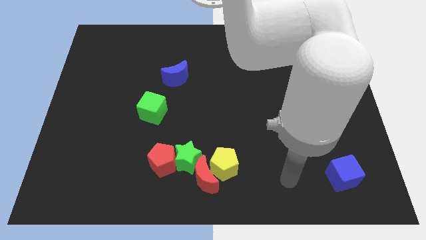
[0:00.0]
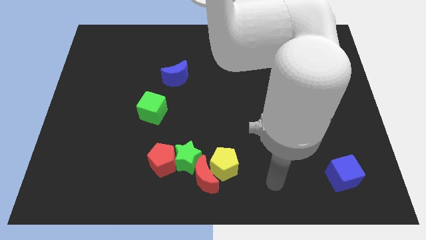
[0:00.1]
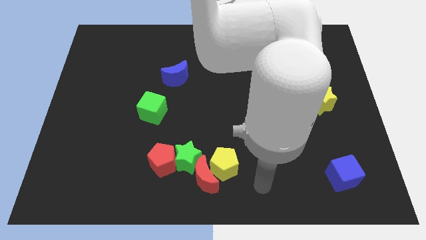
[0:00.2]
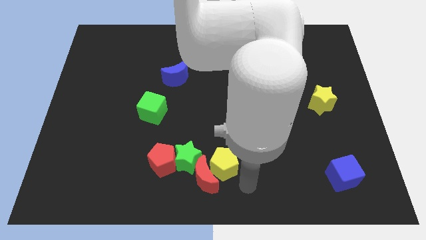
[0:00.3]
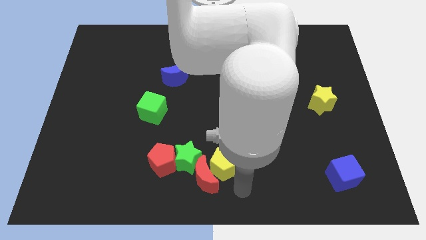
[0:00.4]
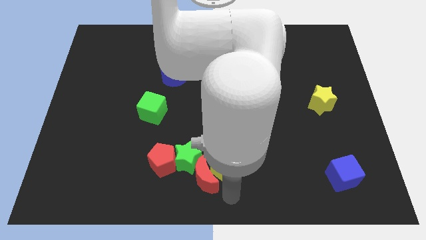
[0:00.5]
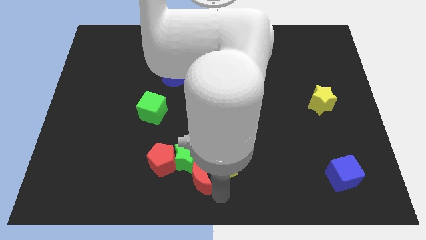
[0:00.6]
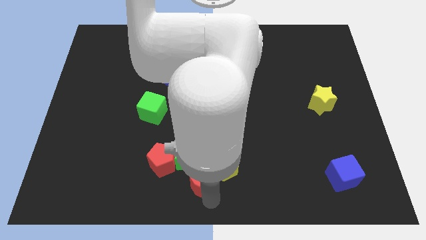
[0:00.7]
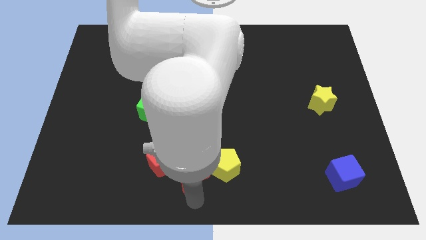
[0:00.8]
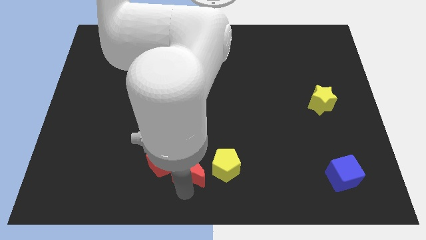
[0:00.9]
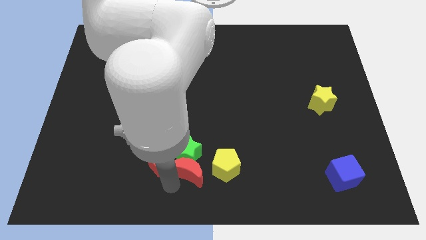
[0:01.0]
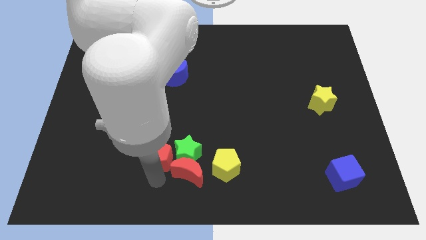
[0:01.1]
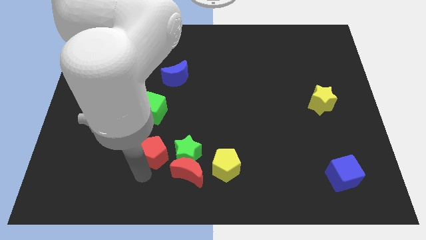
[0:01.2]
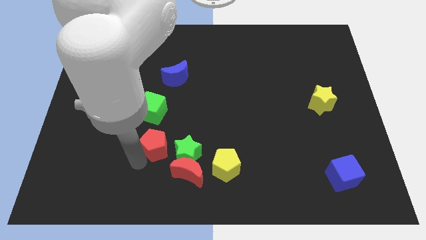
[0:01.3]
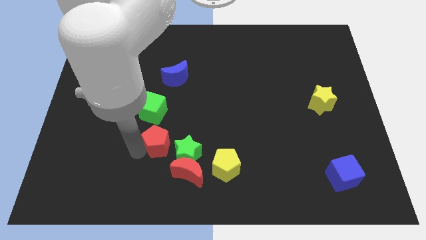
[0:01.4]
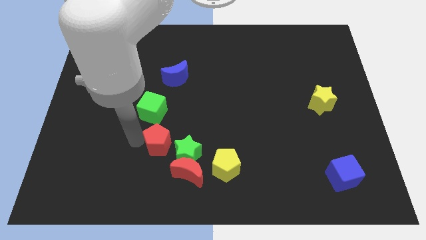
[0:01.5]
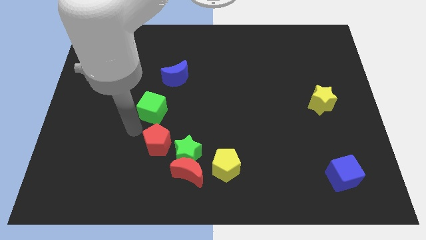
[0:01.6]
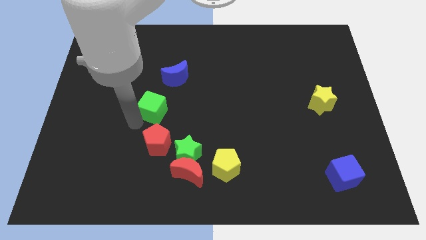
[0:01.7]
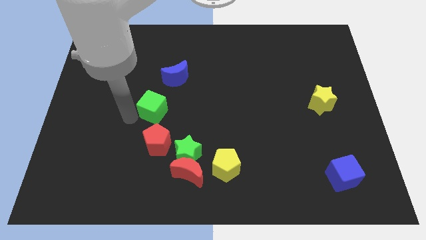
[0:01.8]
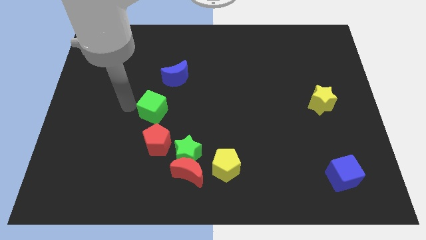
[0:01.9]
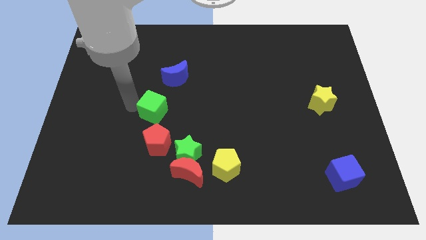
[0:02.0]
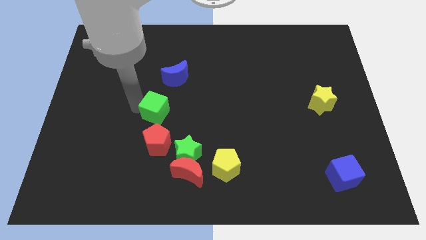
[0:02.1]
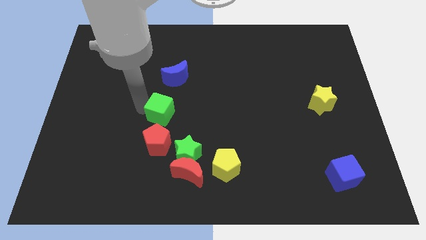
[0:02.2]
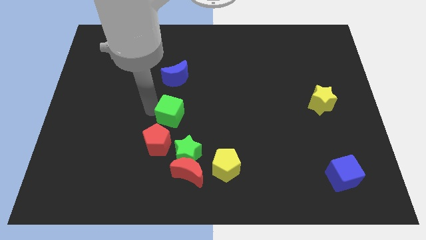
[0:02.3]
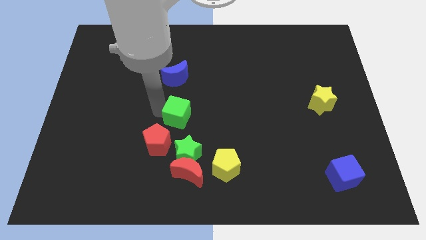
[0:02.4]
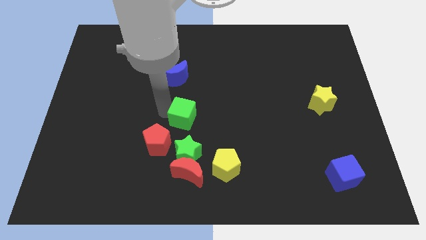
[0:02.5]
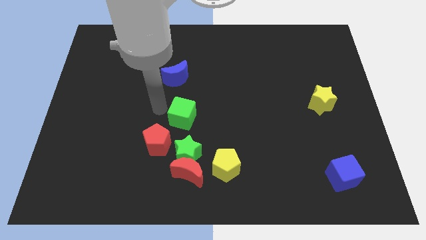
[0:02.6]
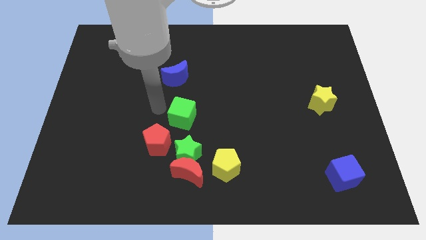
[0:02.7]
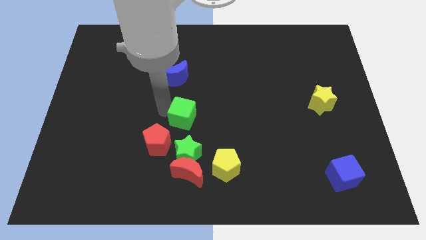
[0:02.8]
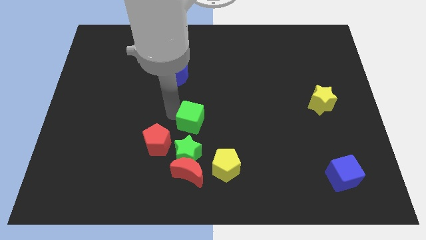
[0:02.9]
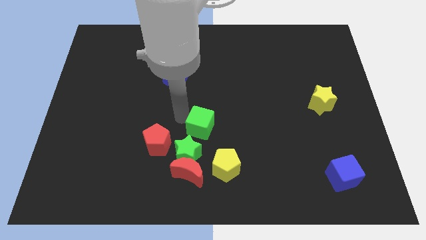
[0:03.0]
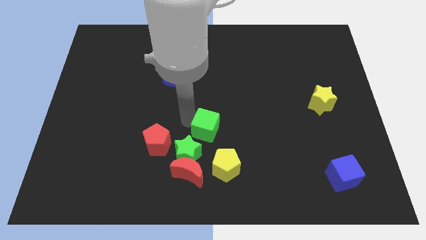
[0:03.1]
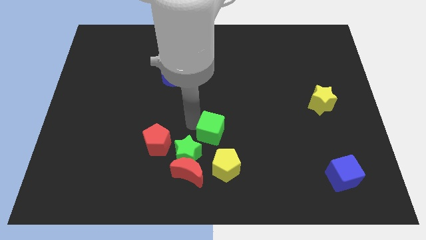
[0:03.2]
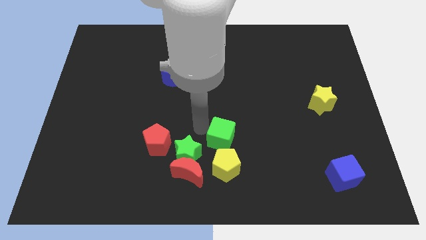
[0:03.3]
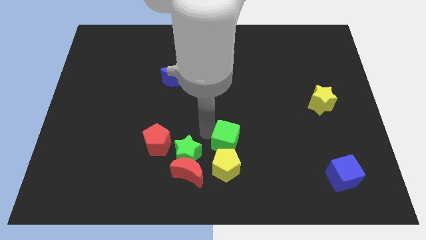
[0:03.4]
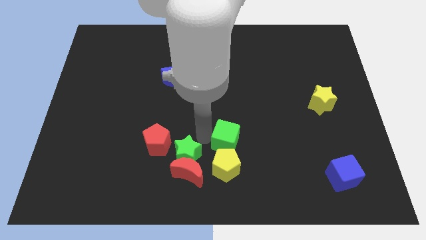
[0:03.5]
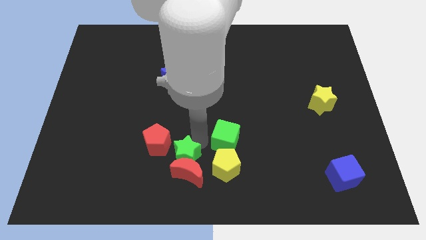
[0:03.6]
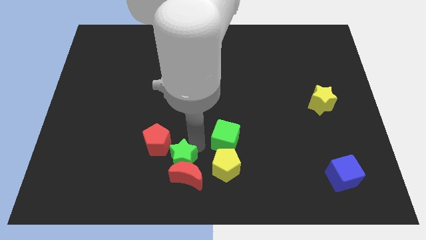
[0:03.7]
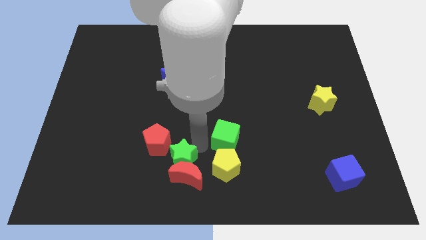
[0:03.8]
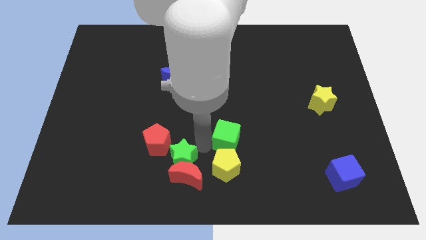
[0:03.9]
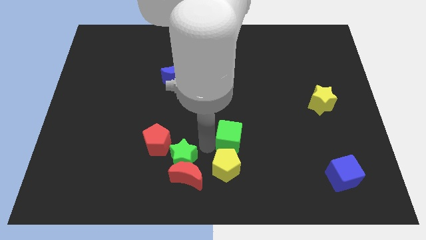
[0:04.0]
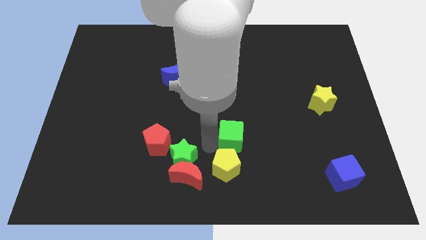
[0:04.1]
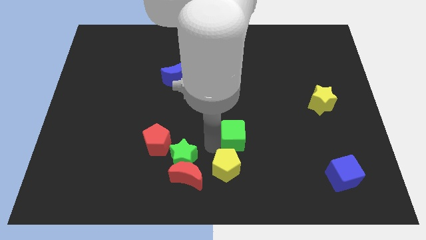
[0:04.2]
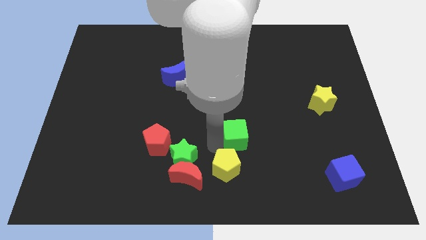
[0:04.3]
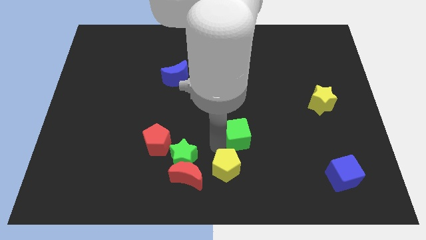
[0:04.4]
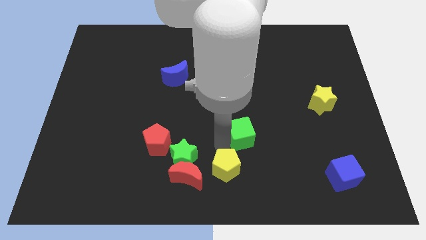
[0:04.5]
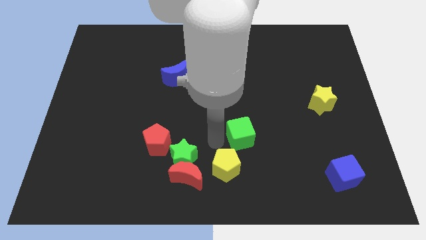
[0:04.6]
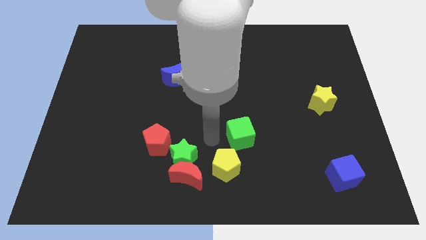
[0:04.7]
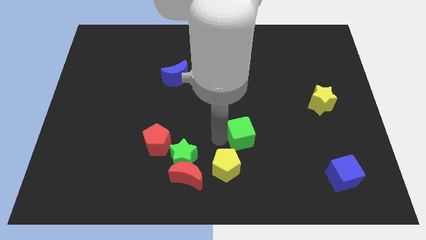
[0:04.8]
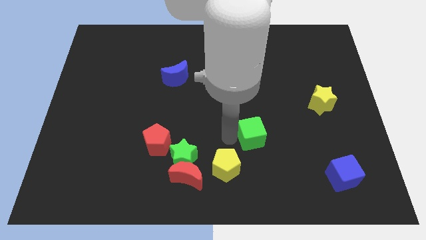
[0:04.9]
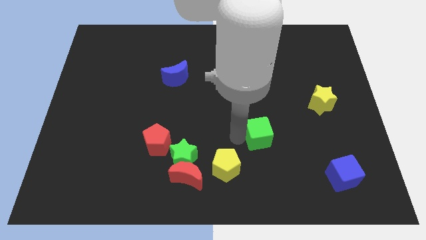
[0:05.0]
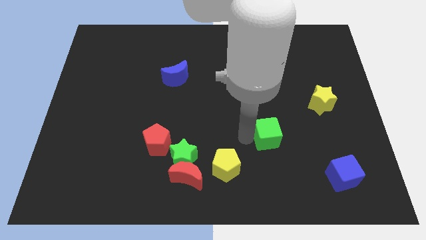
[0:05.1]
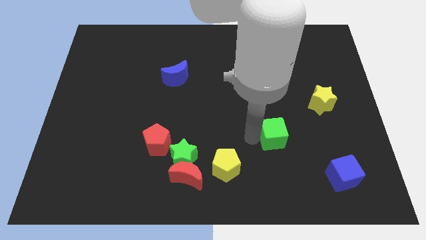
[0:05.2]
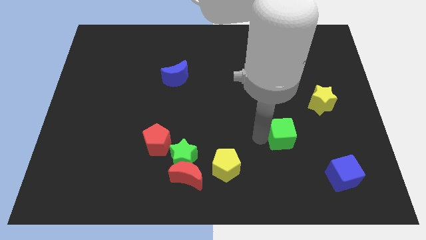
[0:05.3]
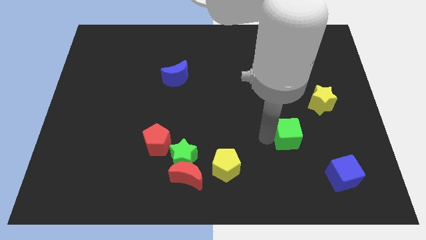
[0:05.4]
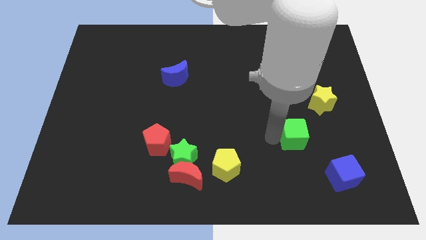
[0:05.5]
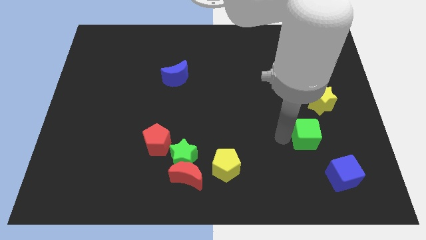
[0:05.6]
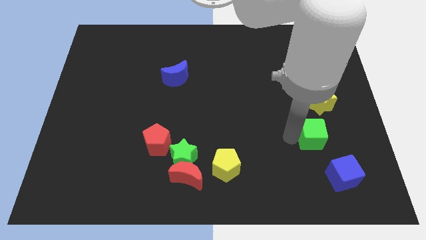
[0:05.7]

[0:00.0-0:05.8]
move the green cube to the bottom side of the yellow star
